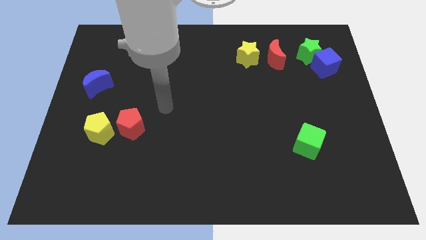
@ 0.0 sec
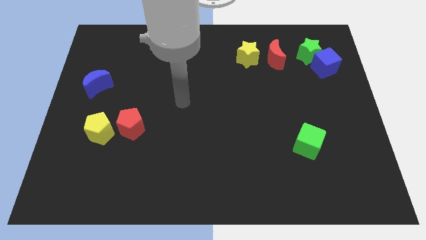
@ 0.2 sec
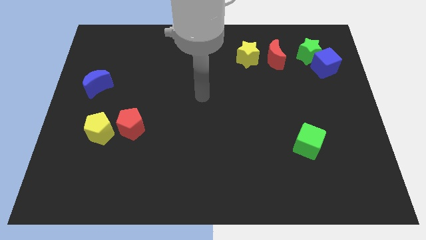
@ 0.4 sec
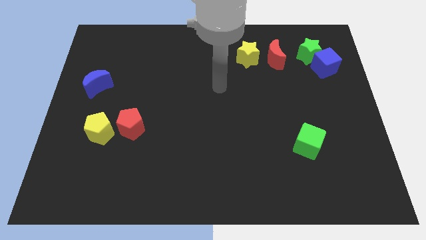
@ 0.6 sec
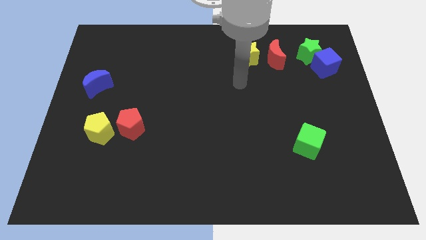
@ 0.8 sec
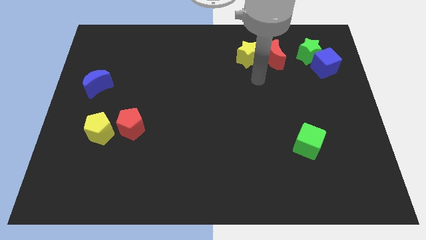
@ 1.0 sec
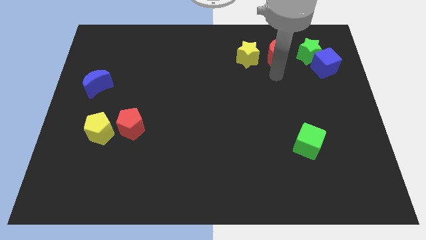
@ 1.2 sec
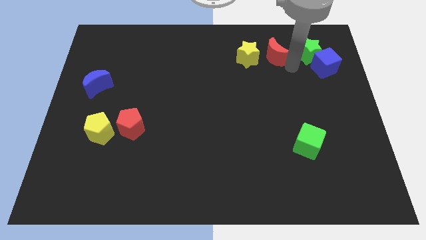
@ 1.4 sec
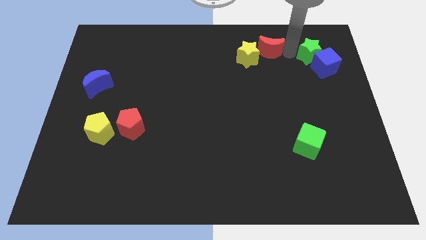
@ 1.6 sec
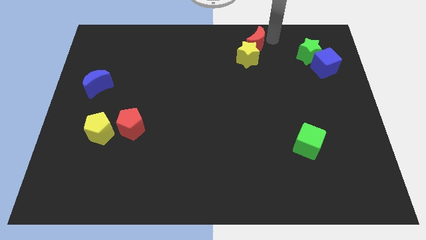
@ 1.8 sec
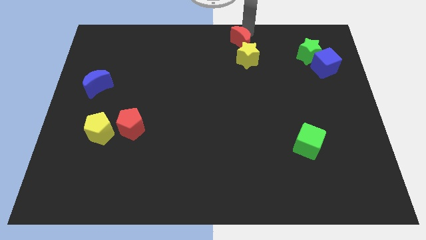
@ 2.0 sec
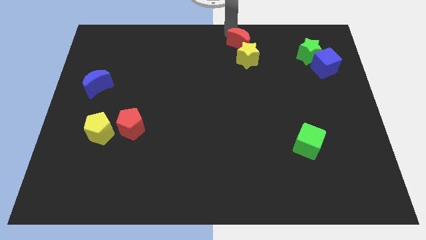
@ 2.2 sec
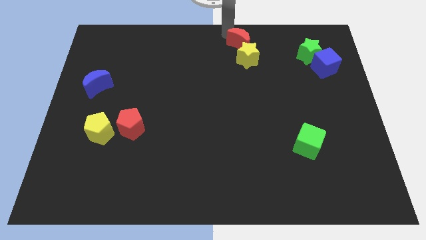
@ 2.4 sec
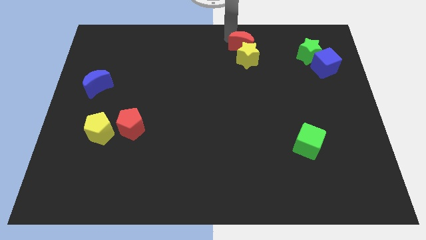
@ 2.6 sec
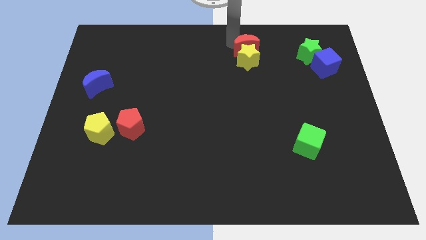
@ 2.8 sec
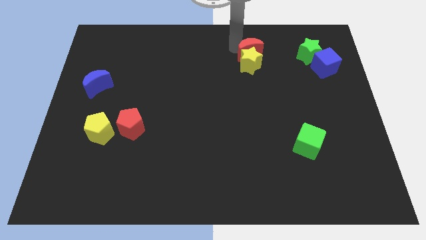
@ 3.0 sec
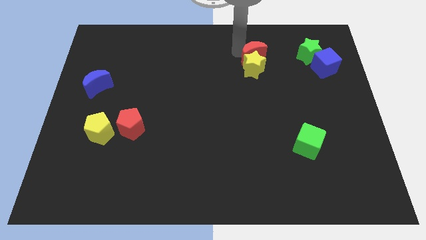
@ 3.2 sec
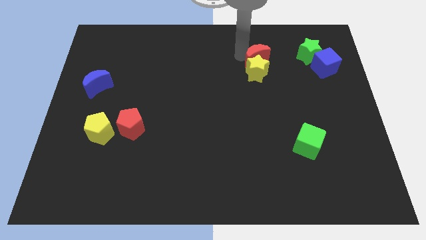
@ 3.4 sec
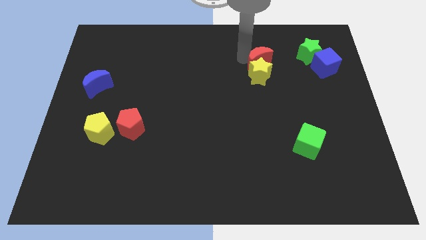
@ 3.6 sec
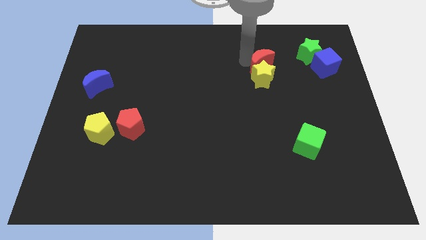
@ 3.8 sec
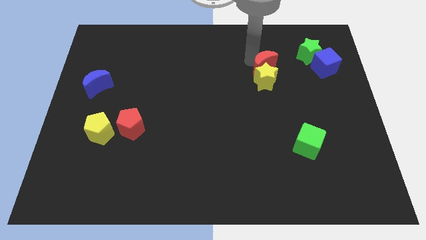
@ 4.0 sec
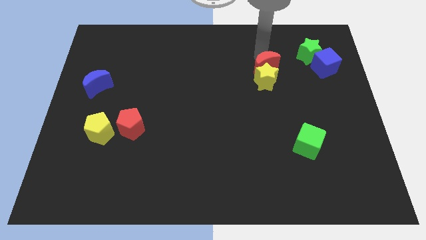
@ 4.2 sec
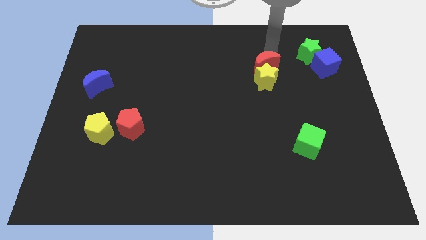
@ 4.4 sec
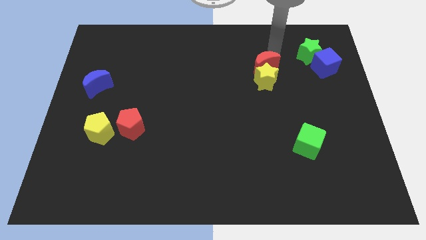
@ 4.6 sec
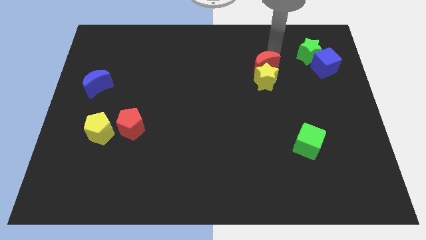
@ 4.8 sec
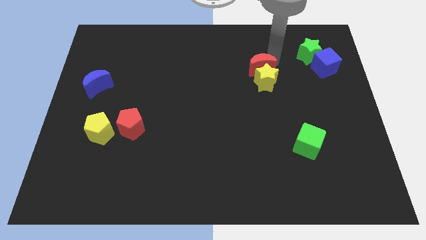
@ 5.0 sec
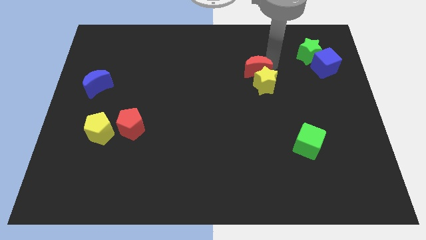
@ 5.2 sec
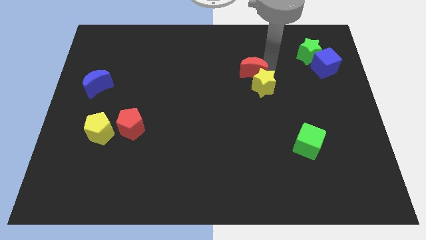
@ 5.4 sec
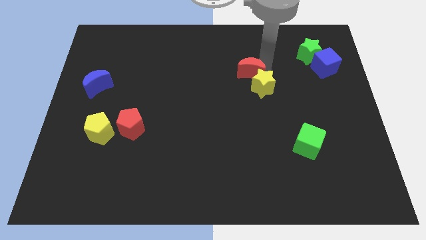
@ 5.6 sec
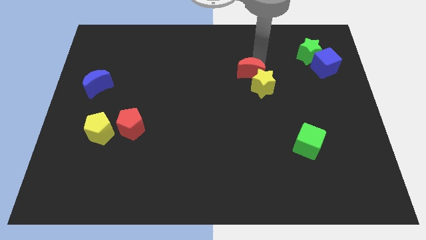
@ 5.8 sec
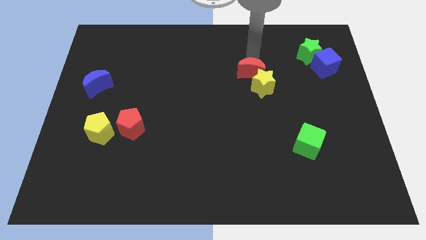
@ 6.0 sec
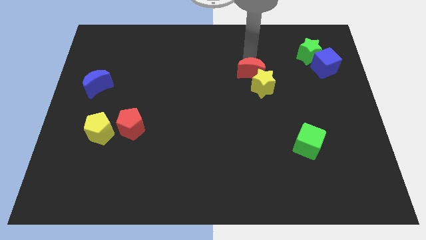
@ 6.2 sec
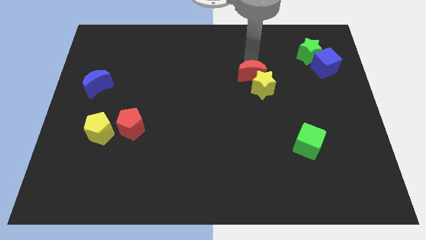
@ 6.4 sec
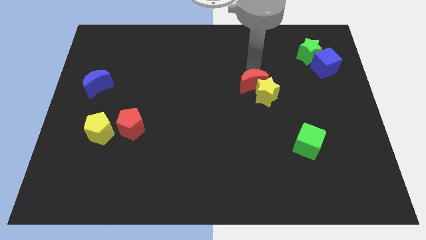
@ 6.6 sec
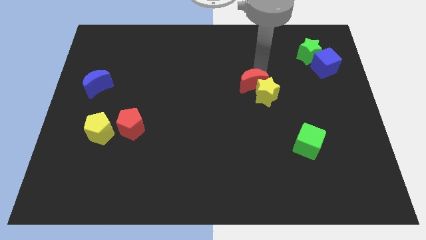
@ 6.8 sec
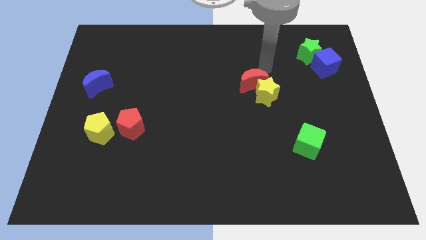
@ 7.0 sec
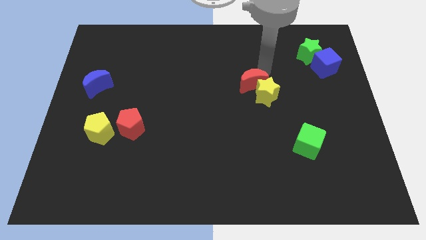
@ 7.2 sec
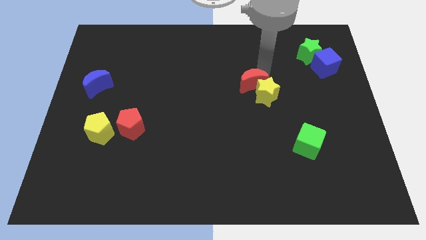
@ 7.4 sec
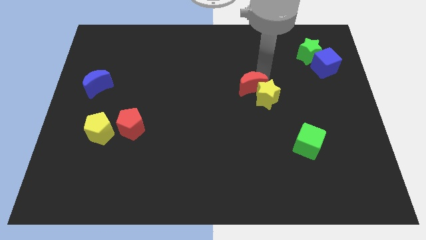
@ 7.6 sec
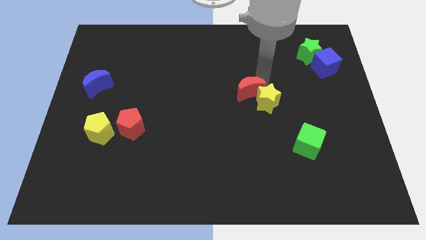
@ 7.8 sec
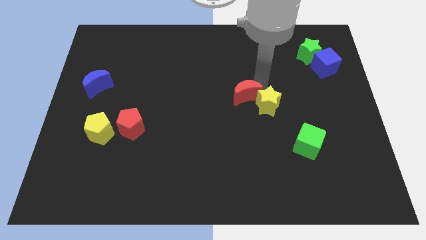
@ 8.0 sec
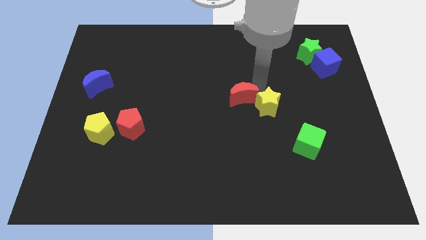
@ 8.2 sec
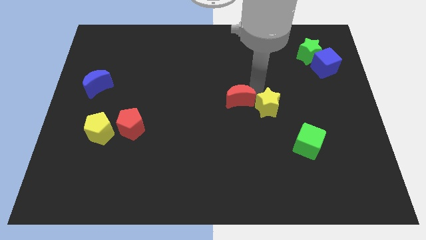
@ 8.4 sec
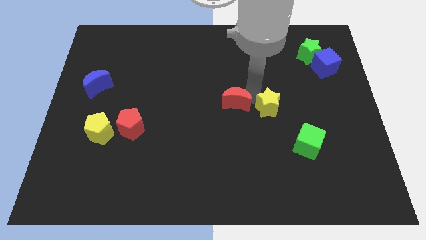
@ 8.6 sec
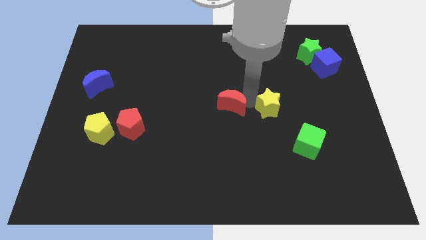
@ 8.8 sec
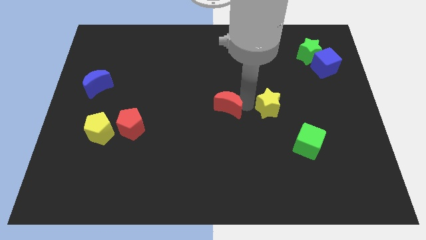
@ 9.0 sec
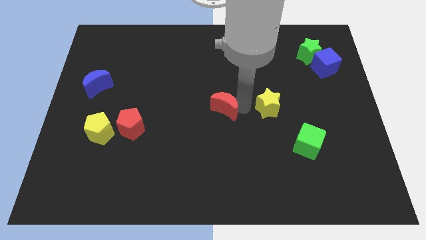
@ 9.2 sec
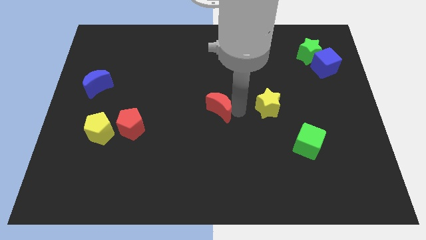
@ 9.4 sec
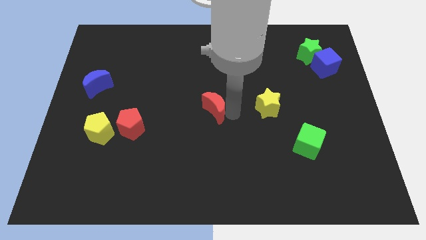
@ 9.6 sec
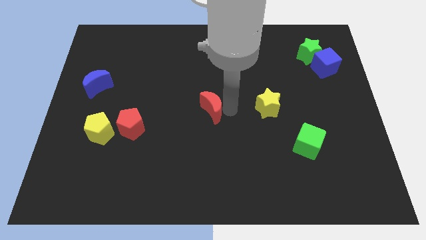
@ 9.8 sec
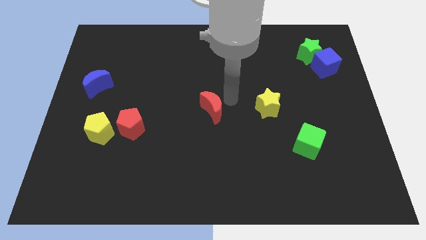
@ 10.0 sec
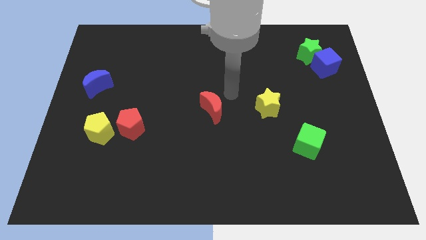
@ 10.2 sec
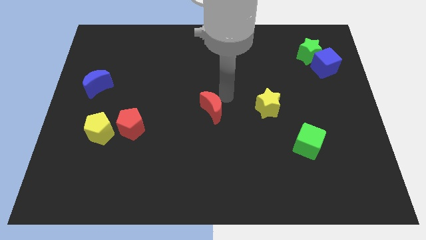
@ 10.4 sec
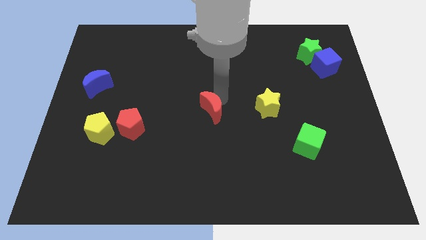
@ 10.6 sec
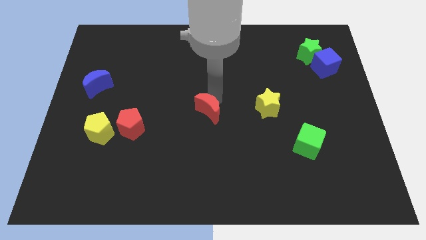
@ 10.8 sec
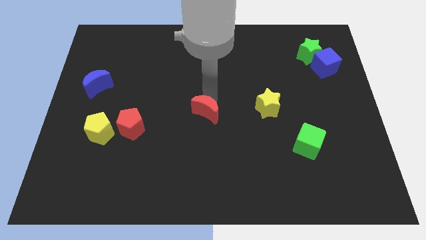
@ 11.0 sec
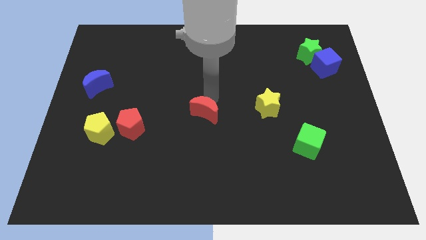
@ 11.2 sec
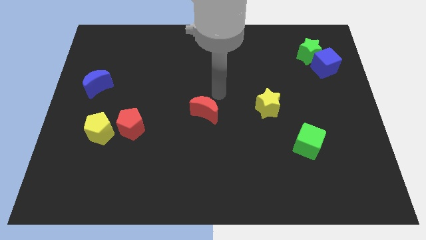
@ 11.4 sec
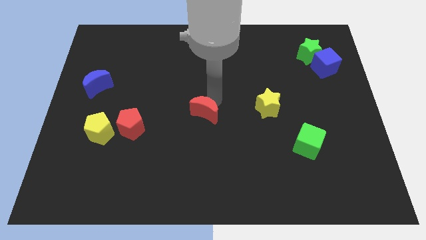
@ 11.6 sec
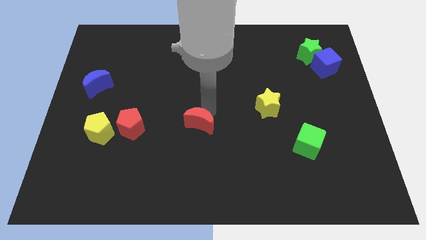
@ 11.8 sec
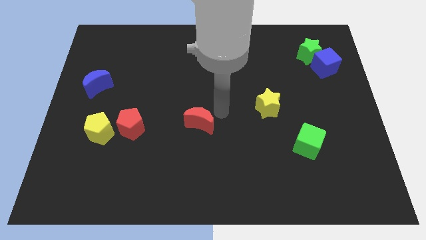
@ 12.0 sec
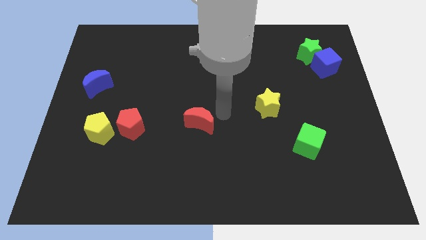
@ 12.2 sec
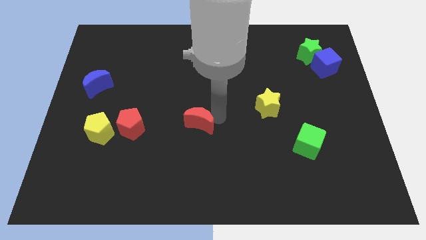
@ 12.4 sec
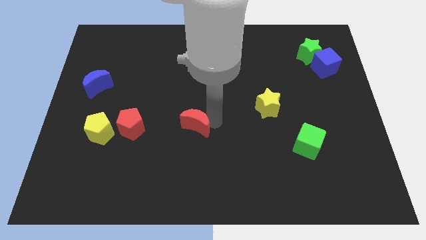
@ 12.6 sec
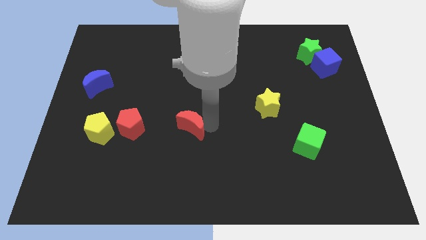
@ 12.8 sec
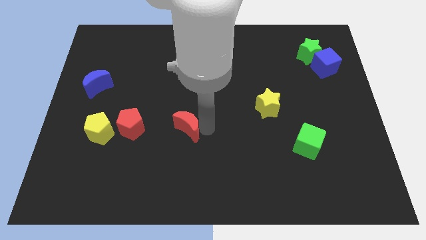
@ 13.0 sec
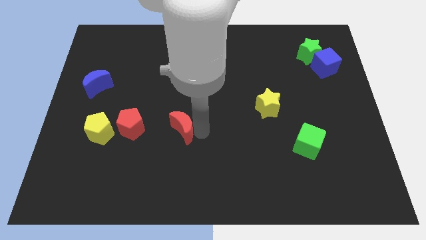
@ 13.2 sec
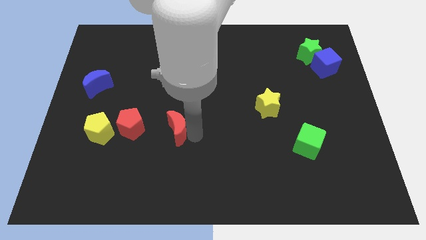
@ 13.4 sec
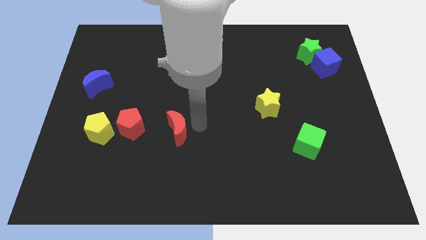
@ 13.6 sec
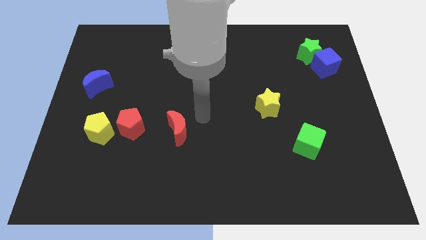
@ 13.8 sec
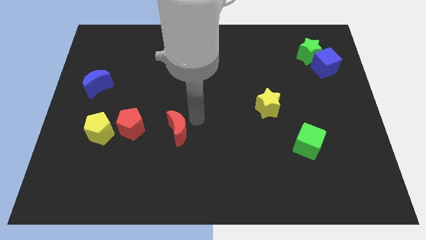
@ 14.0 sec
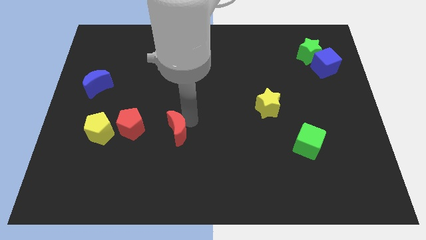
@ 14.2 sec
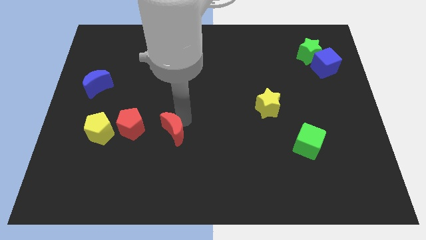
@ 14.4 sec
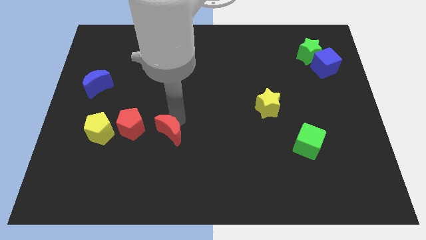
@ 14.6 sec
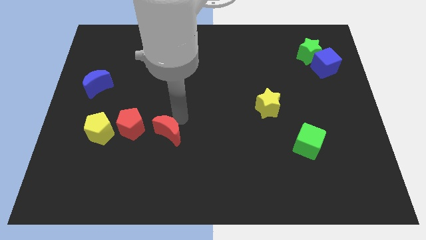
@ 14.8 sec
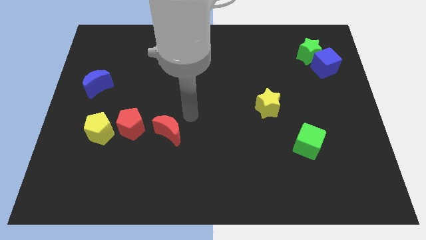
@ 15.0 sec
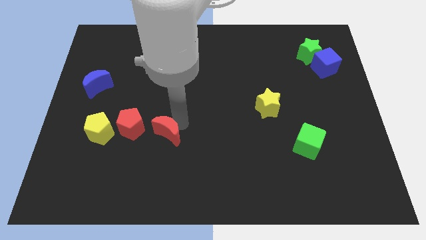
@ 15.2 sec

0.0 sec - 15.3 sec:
move the red moon diagonally down and to the right of the red pentagon
